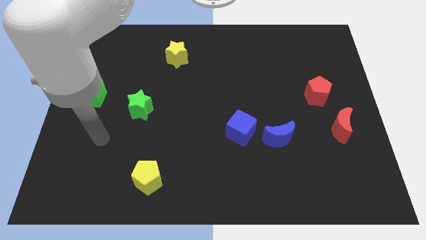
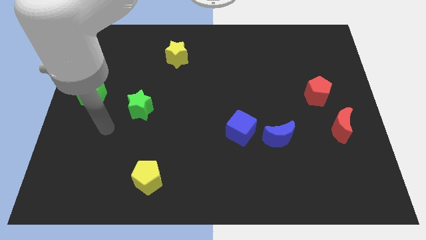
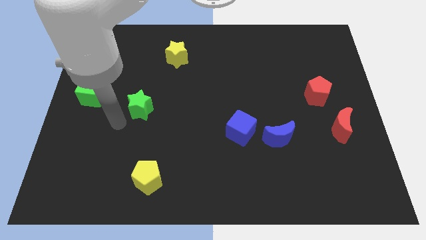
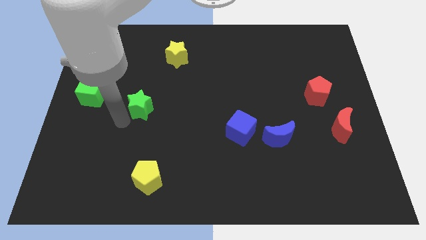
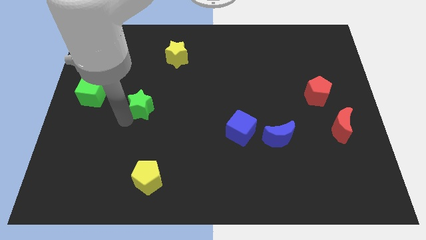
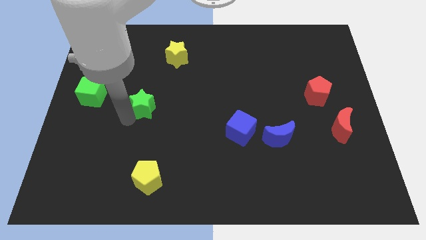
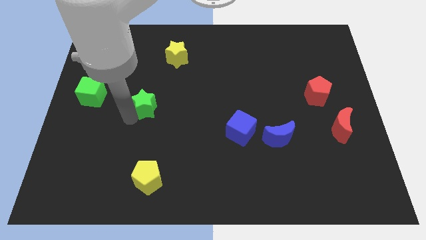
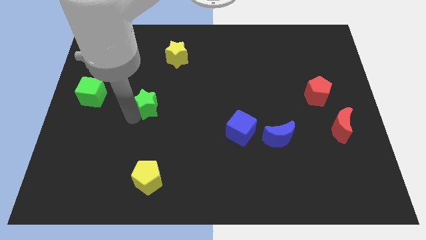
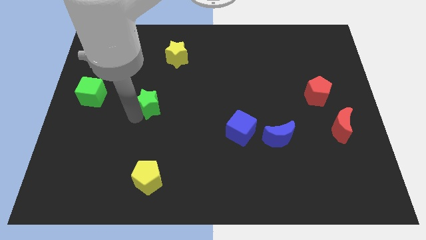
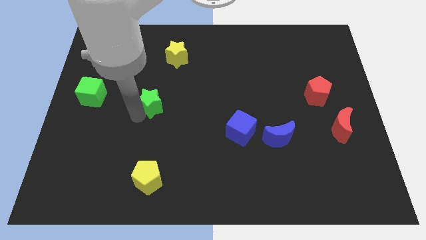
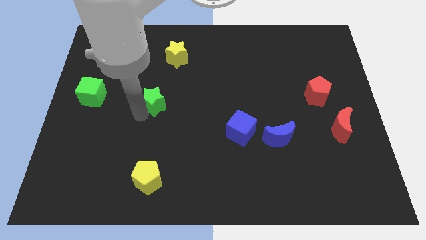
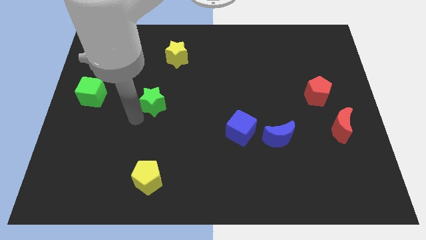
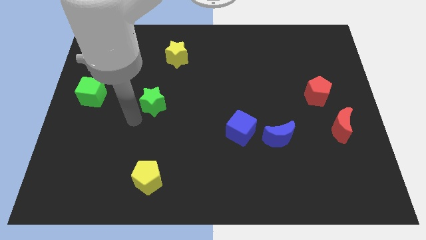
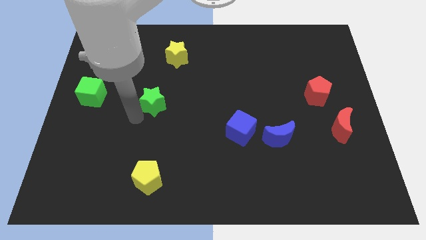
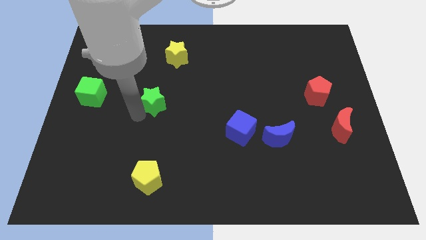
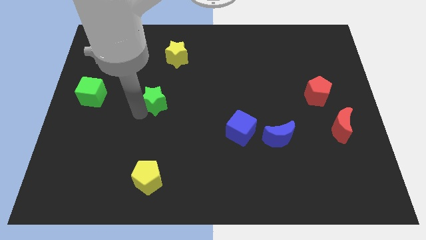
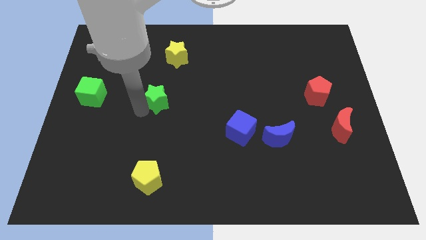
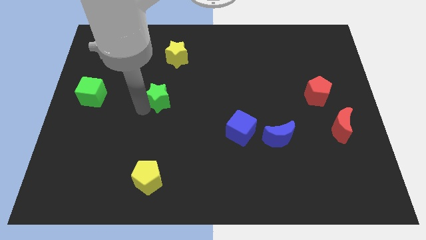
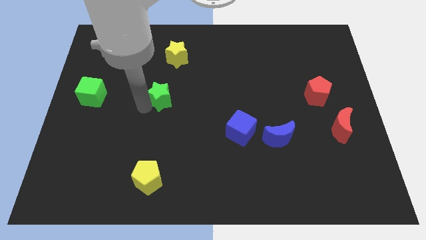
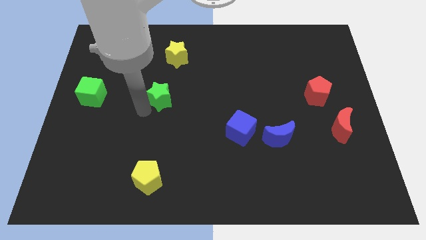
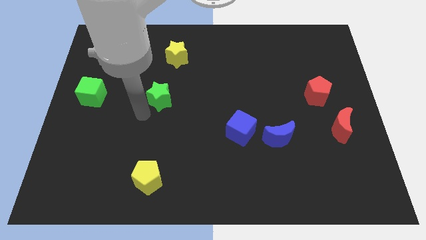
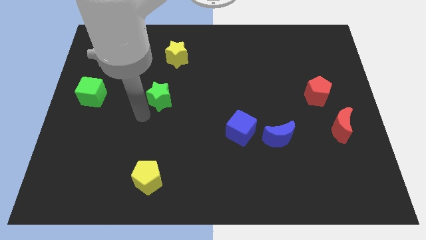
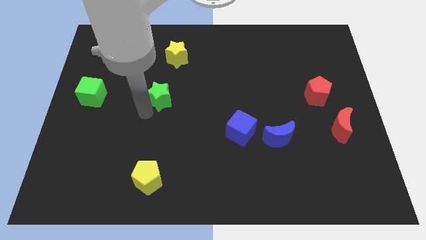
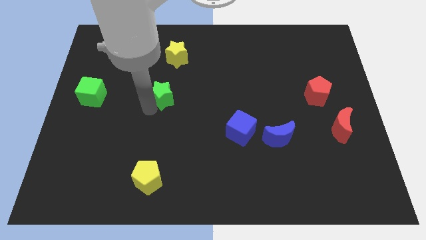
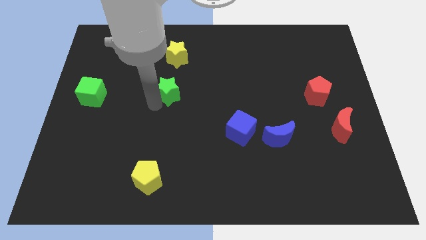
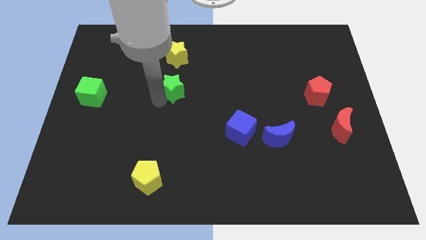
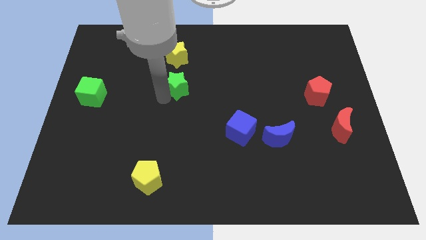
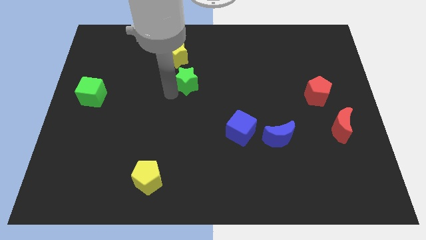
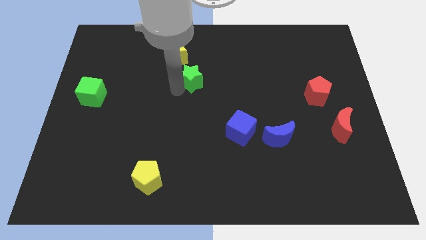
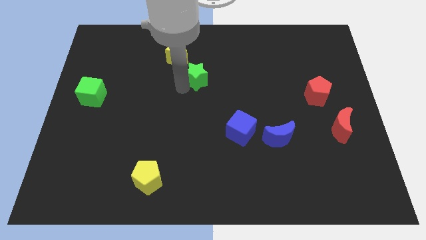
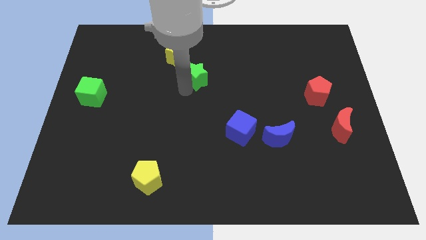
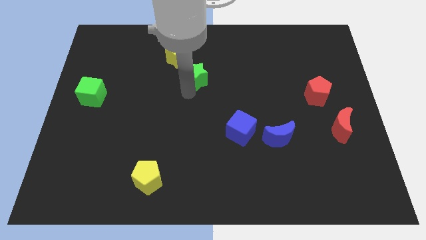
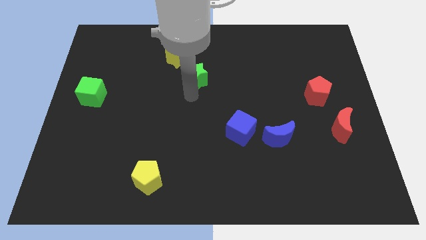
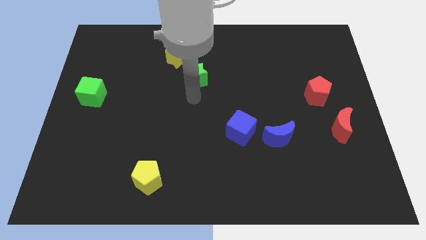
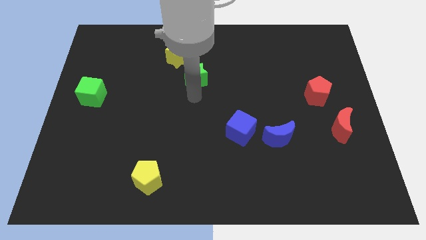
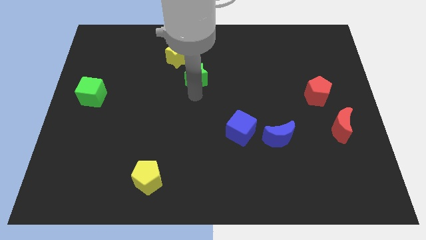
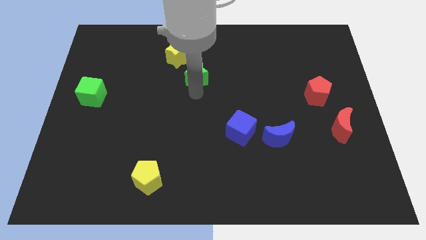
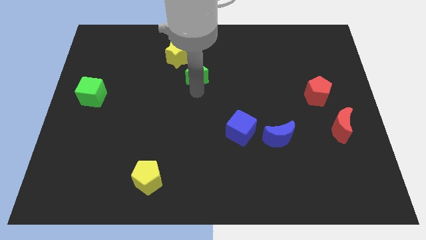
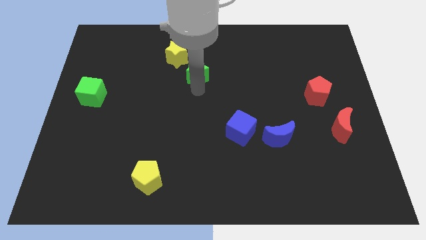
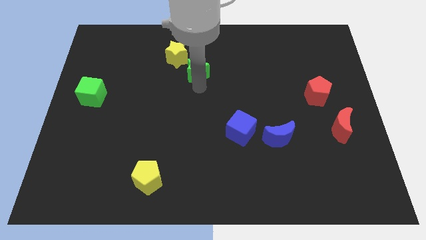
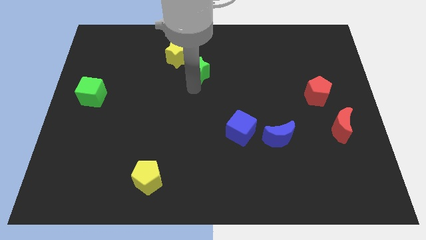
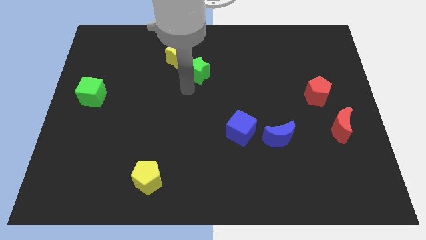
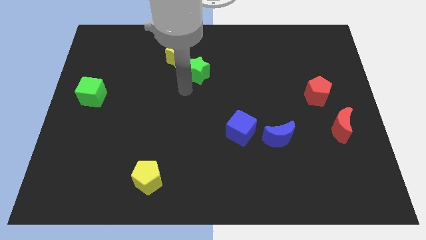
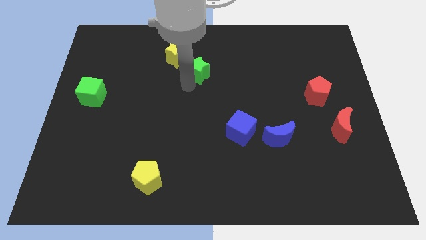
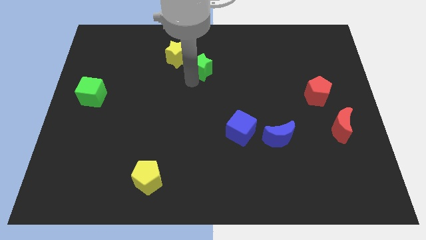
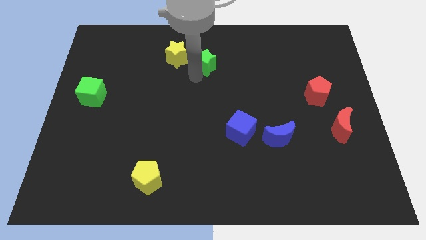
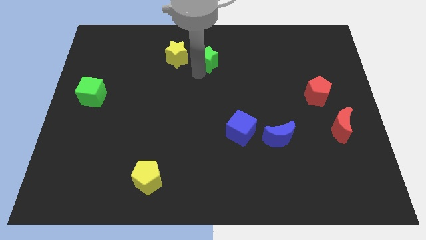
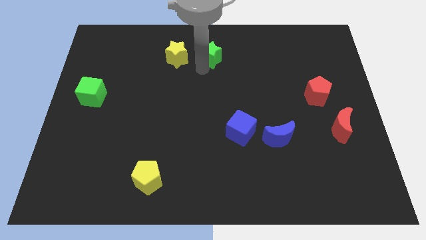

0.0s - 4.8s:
move the green star to the top side

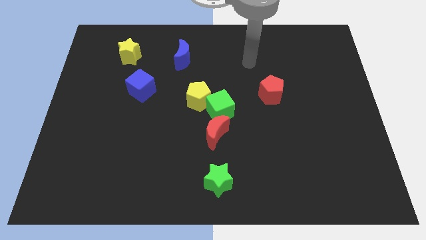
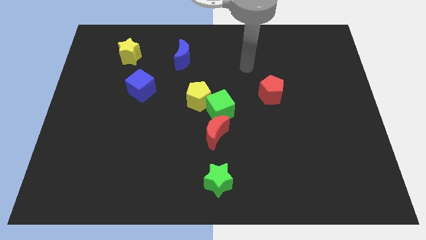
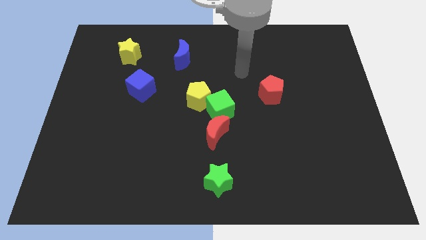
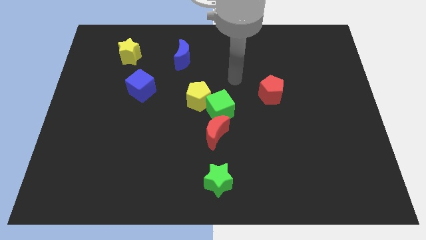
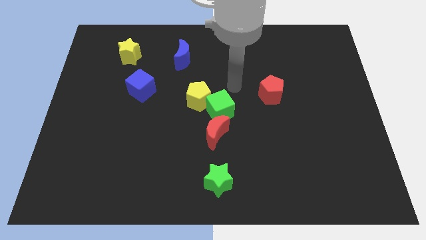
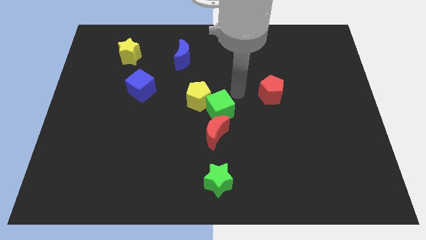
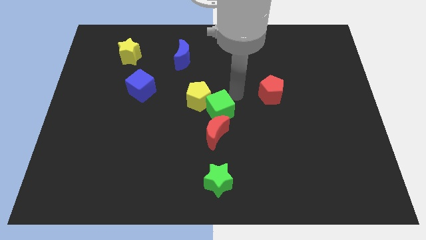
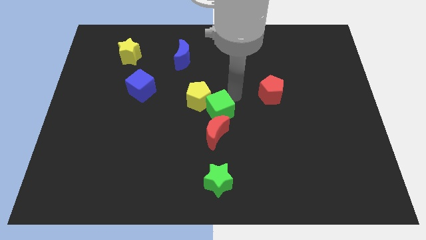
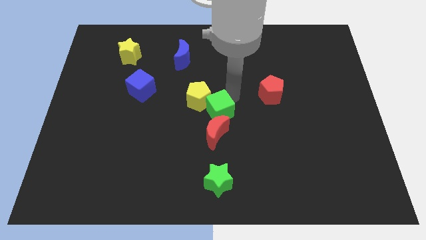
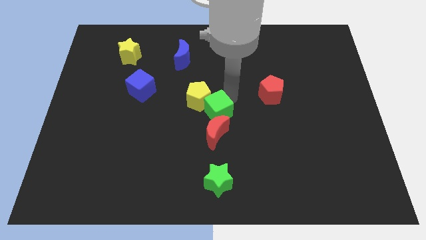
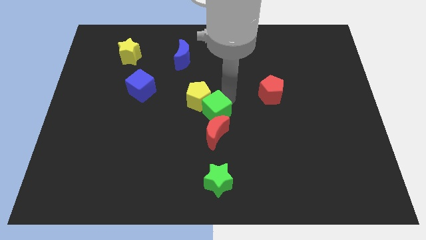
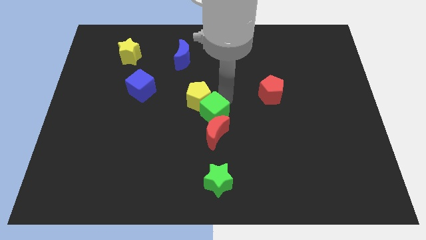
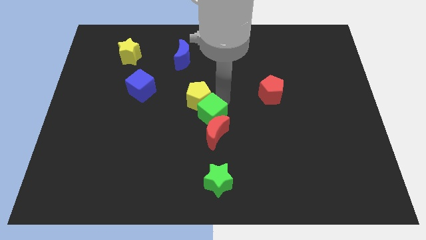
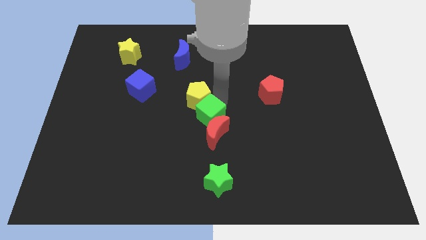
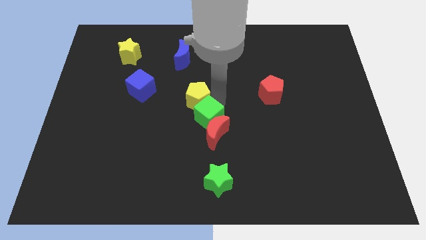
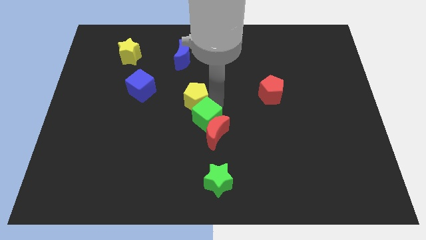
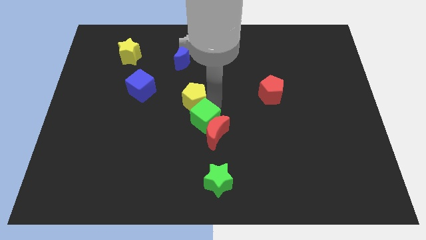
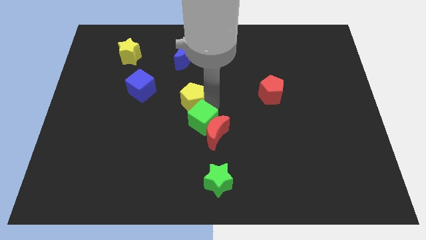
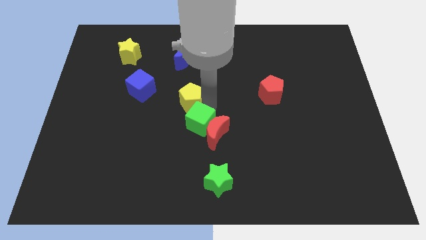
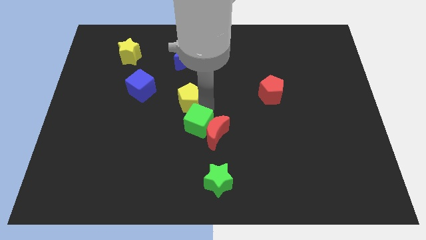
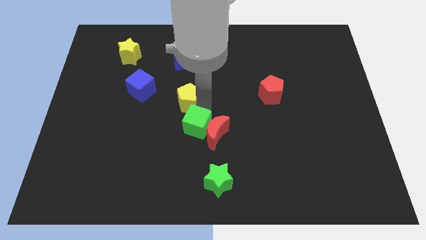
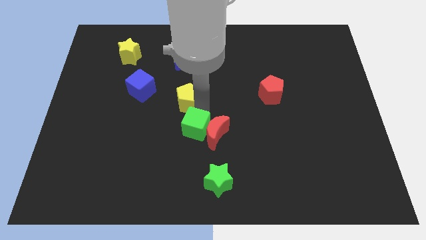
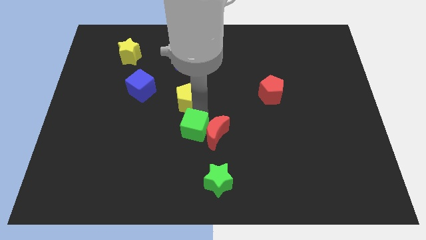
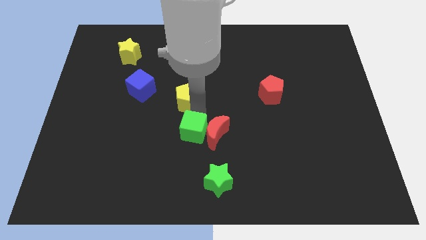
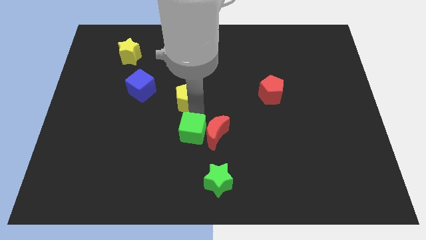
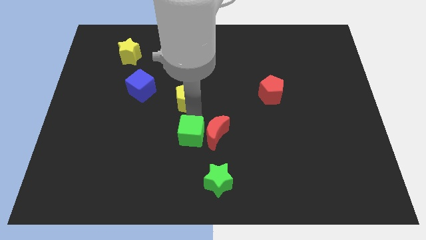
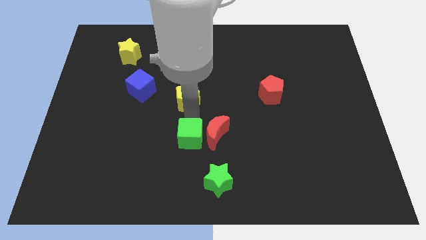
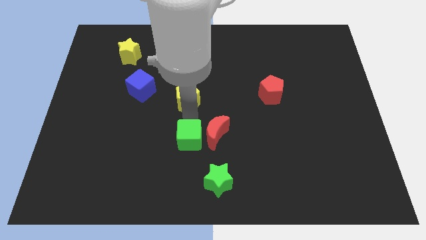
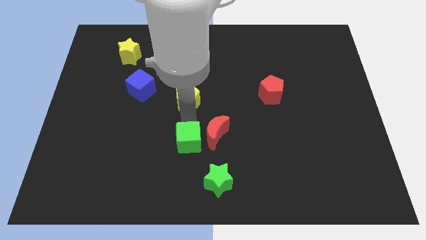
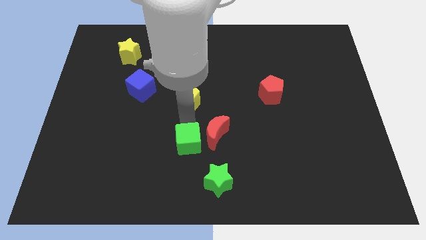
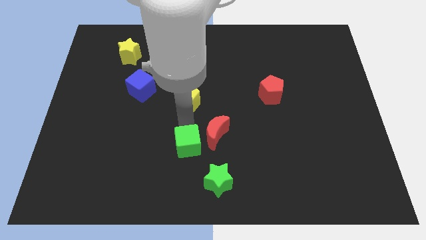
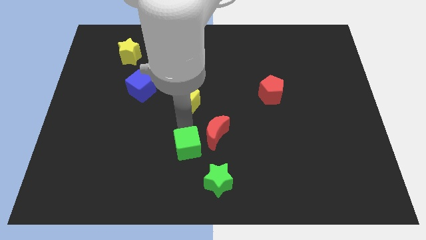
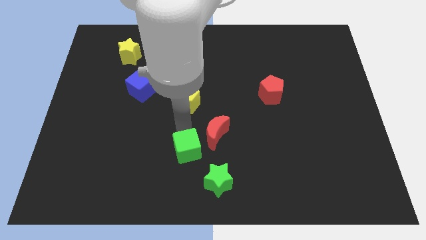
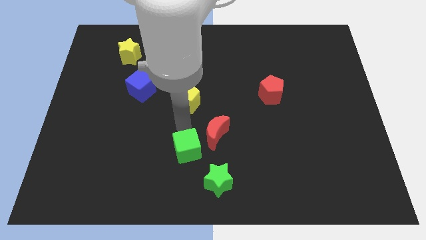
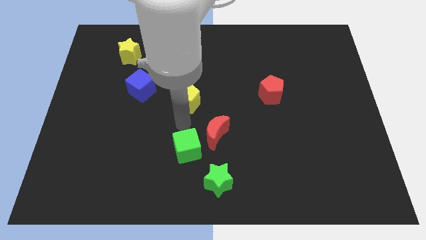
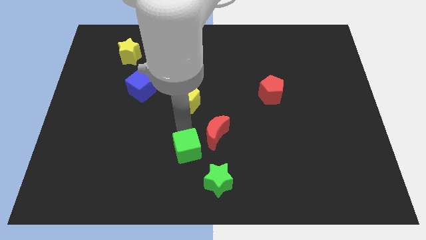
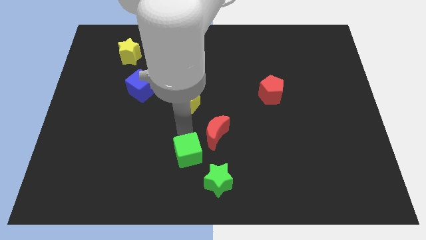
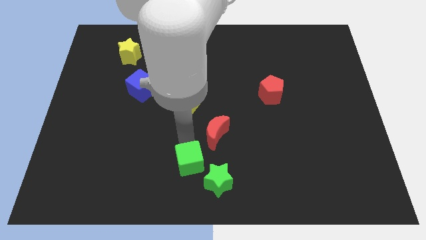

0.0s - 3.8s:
slide the green cube to the bottom side
